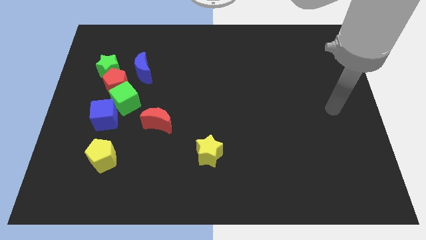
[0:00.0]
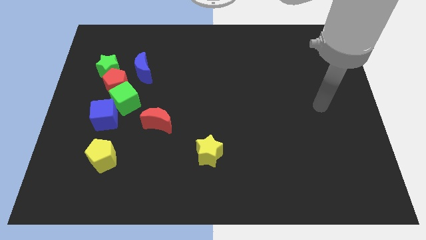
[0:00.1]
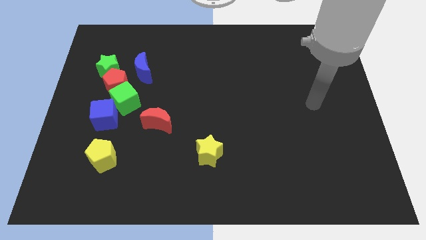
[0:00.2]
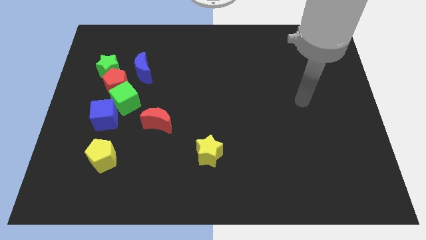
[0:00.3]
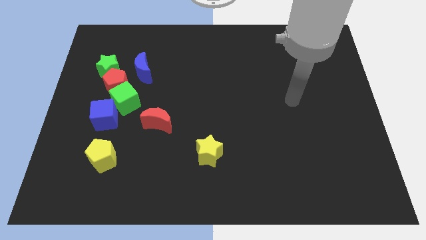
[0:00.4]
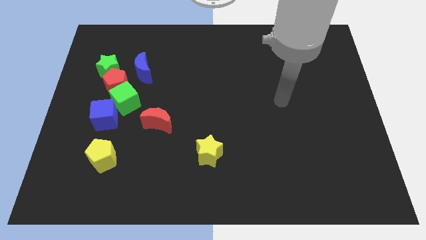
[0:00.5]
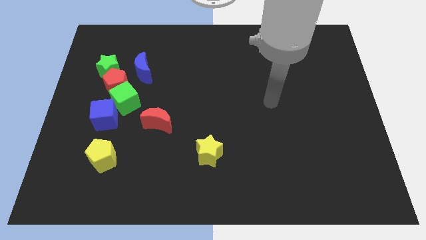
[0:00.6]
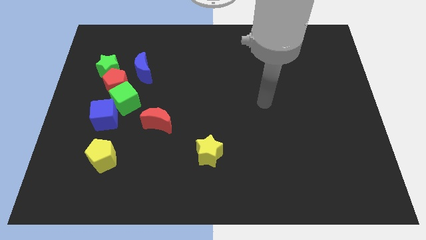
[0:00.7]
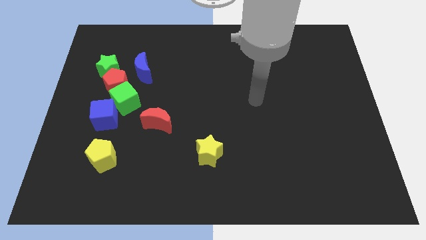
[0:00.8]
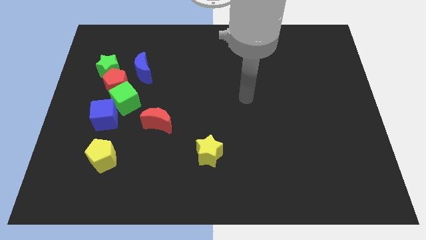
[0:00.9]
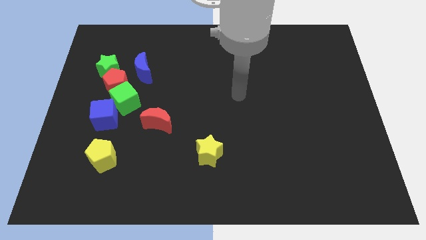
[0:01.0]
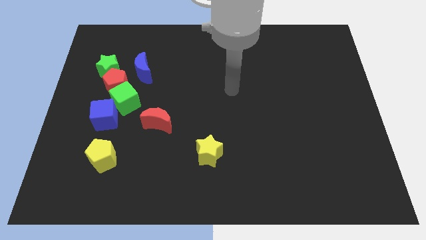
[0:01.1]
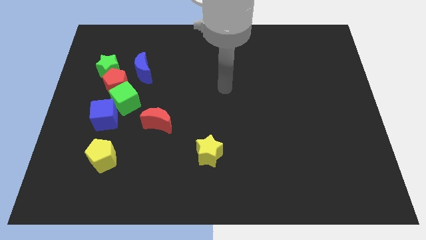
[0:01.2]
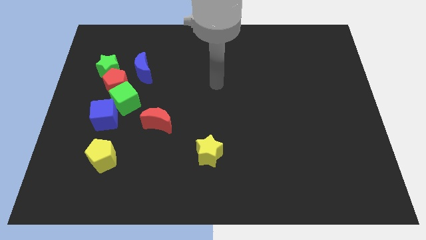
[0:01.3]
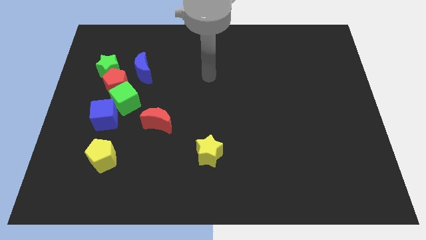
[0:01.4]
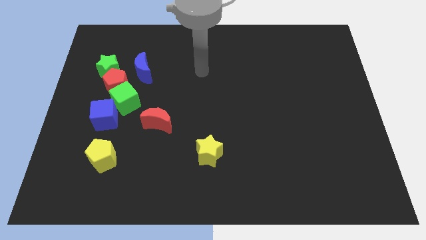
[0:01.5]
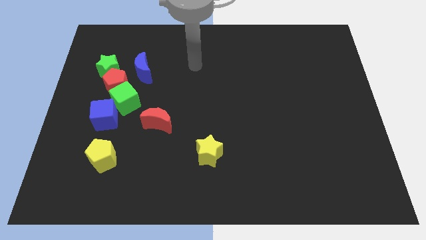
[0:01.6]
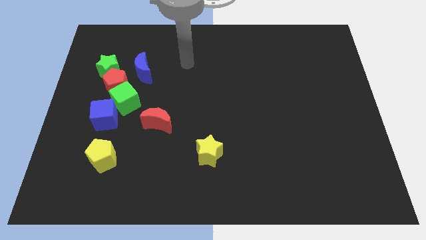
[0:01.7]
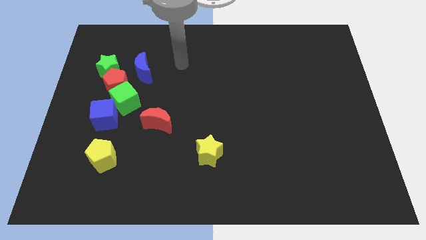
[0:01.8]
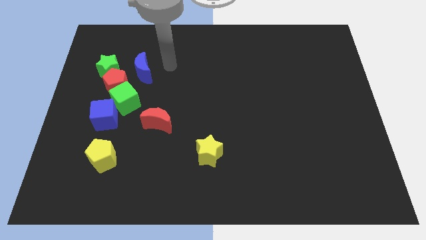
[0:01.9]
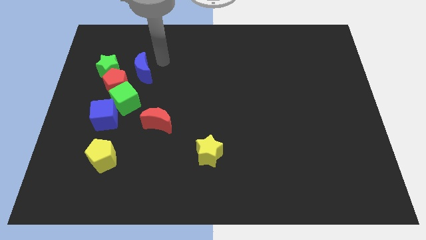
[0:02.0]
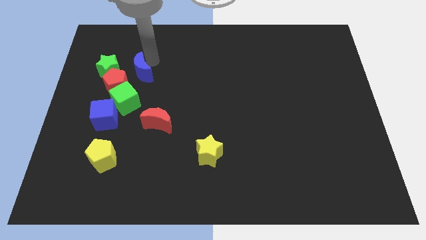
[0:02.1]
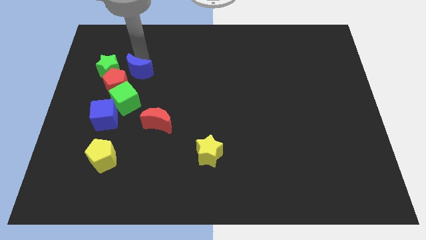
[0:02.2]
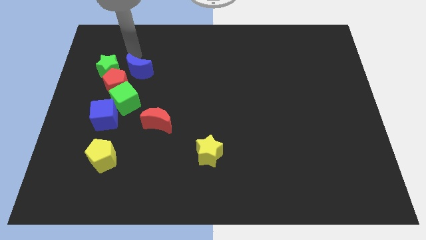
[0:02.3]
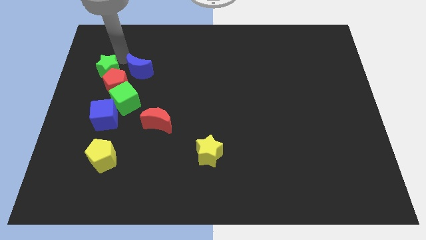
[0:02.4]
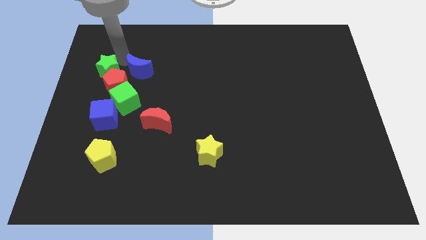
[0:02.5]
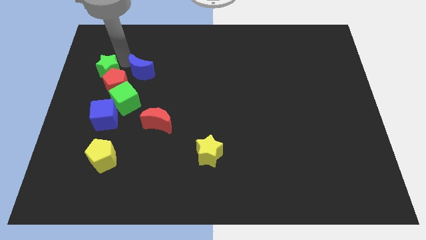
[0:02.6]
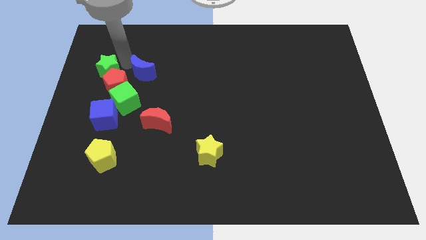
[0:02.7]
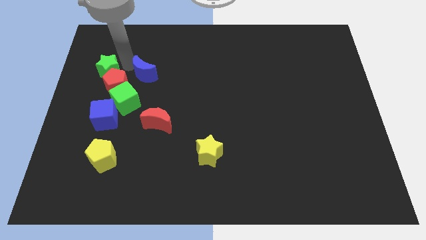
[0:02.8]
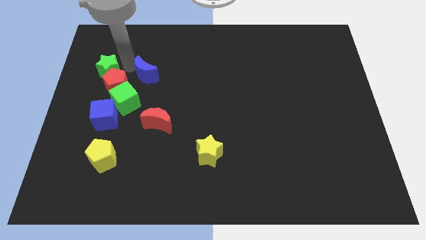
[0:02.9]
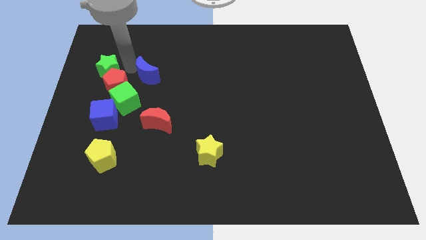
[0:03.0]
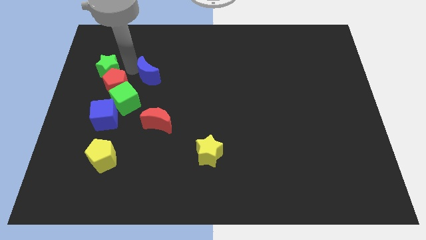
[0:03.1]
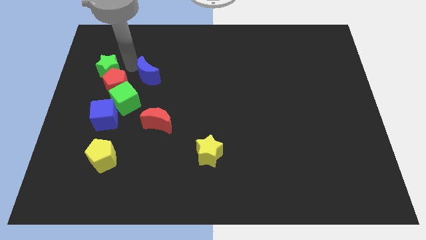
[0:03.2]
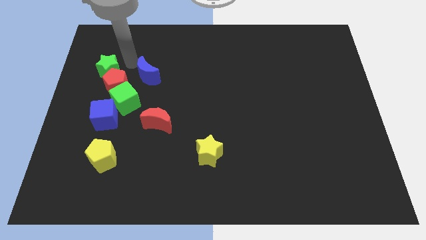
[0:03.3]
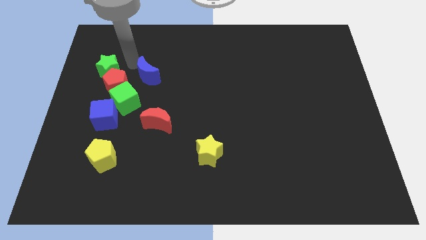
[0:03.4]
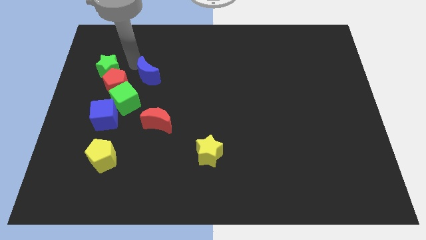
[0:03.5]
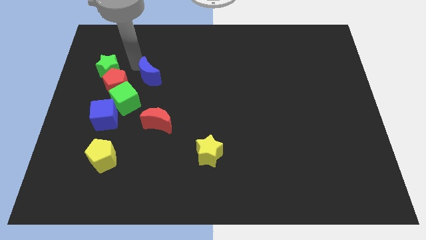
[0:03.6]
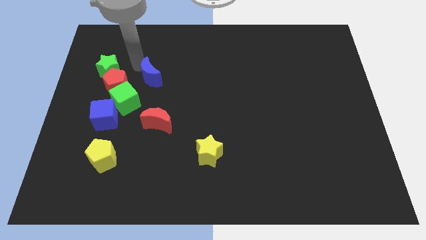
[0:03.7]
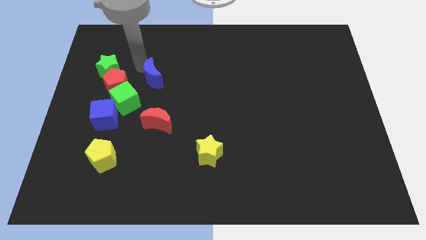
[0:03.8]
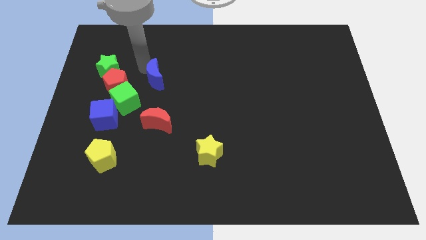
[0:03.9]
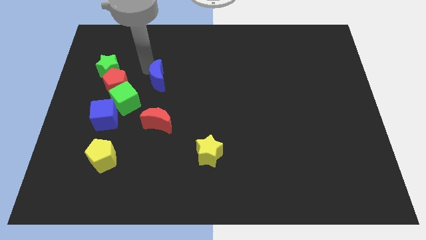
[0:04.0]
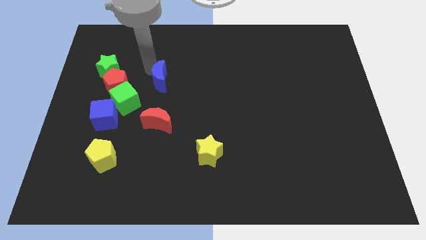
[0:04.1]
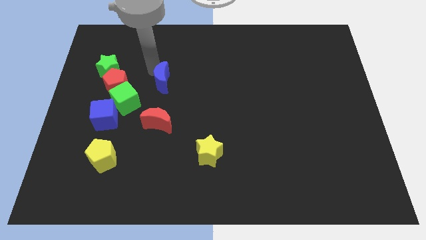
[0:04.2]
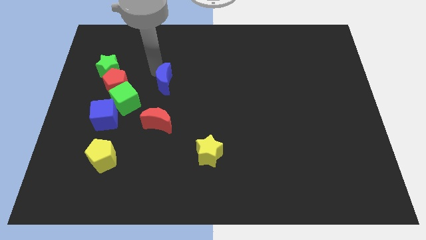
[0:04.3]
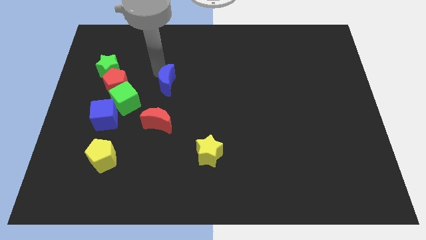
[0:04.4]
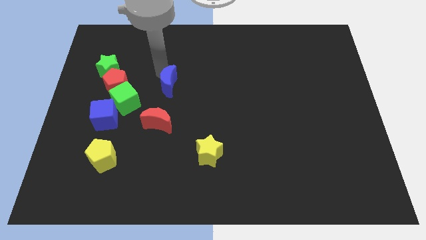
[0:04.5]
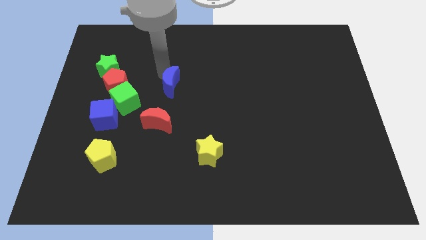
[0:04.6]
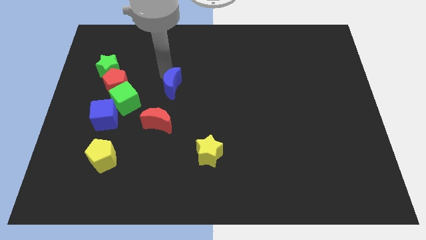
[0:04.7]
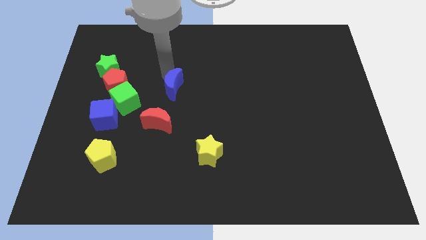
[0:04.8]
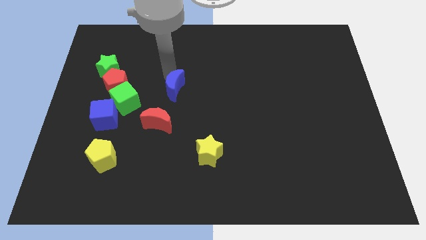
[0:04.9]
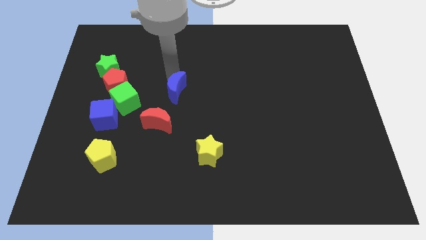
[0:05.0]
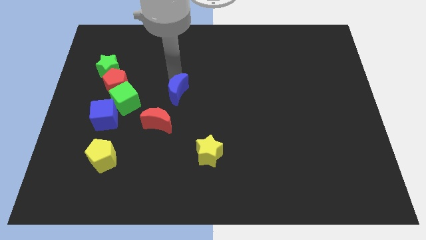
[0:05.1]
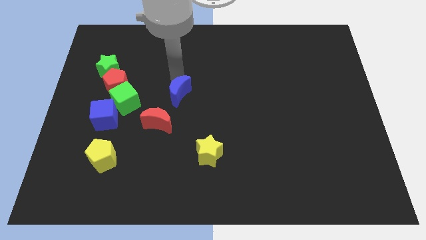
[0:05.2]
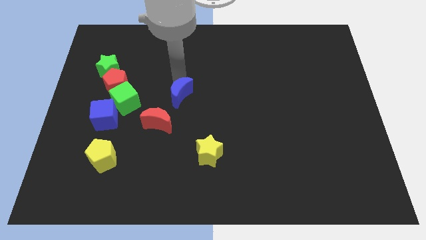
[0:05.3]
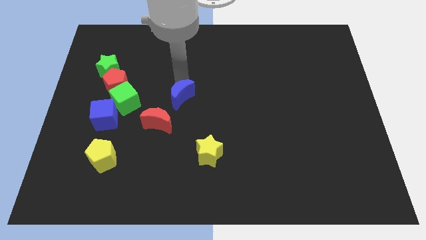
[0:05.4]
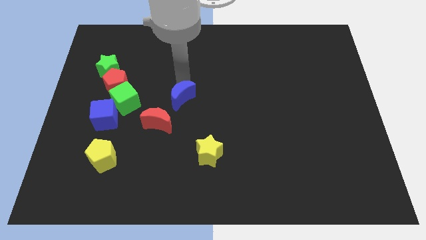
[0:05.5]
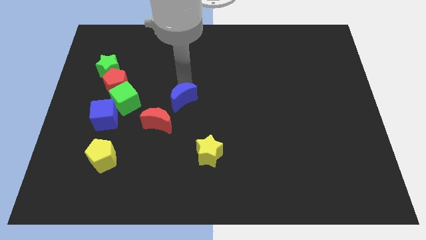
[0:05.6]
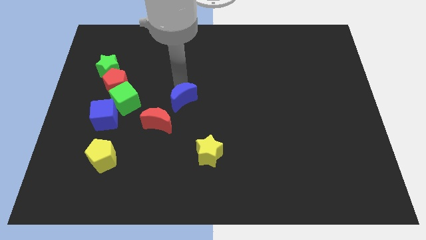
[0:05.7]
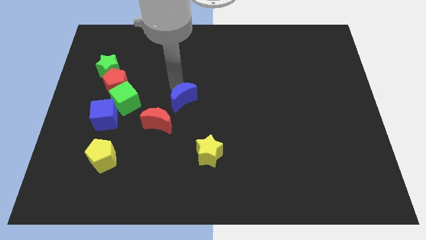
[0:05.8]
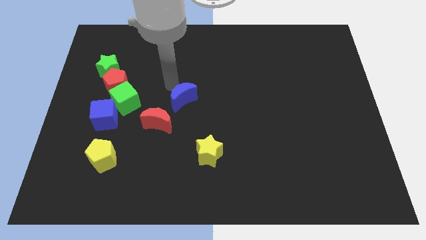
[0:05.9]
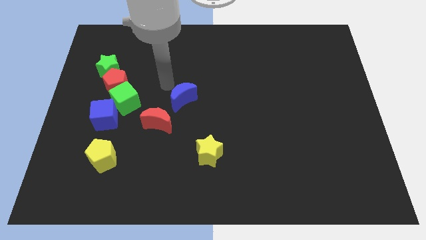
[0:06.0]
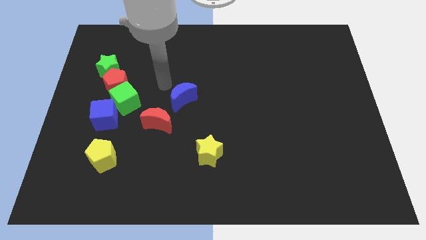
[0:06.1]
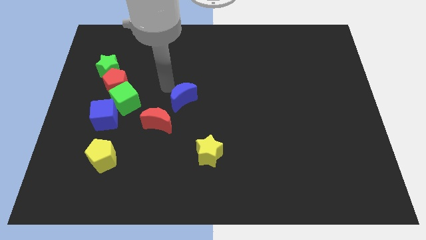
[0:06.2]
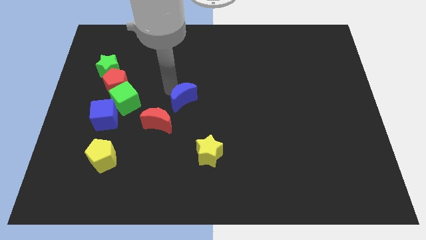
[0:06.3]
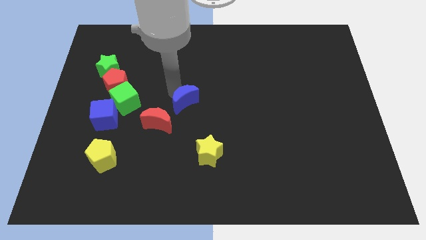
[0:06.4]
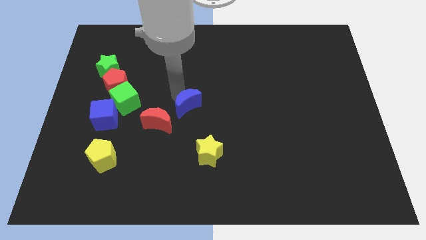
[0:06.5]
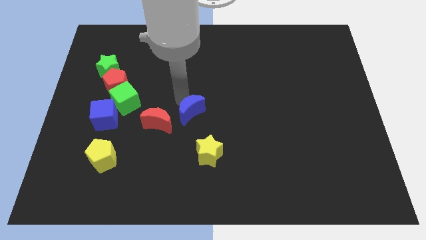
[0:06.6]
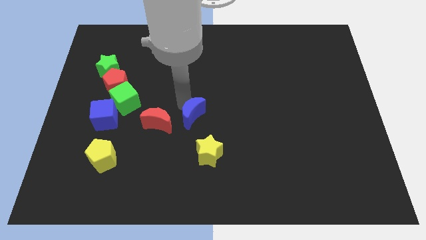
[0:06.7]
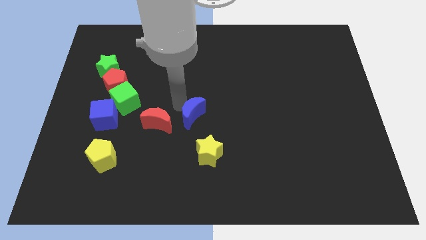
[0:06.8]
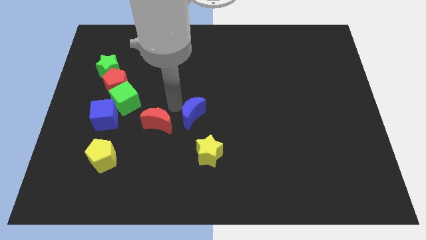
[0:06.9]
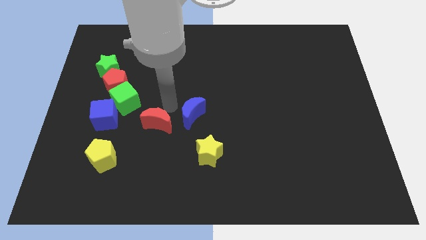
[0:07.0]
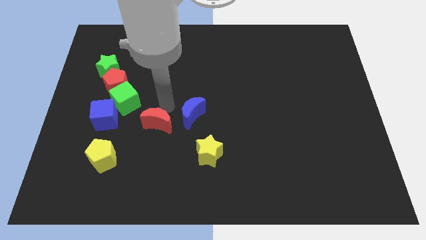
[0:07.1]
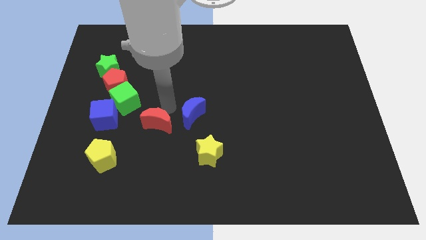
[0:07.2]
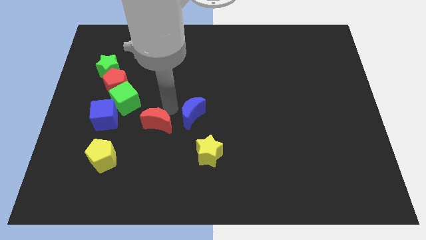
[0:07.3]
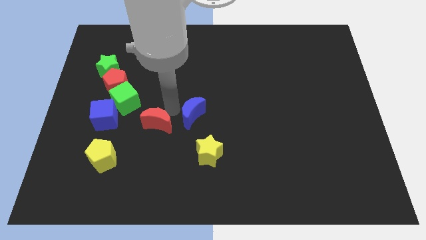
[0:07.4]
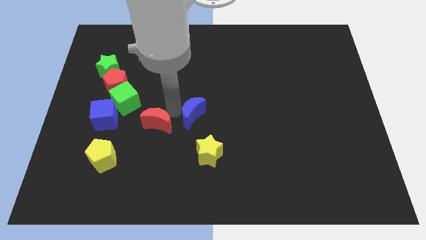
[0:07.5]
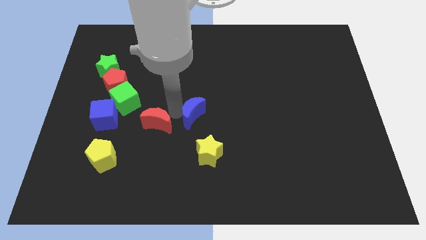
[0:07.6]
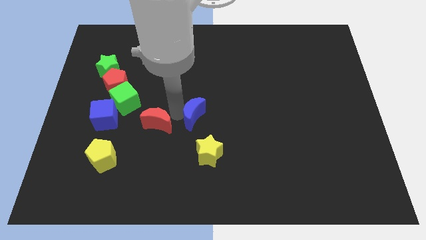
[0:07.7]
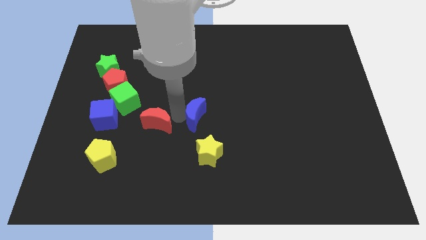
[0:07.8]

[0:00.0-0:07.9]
move the blue moon down and then right
